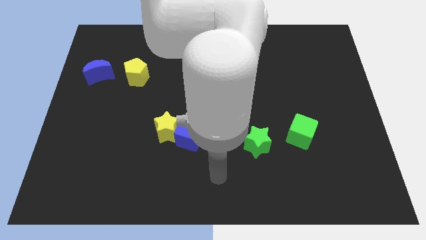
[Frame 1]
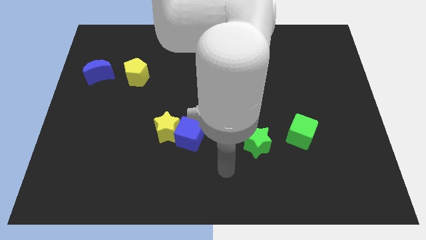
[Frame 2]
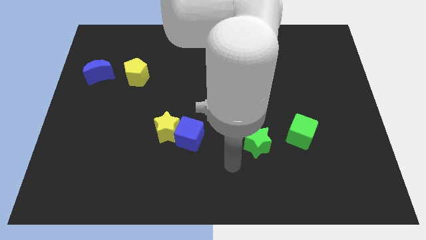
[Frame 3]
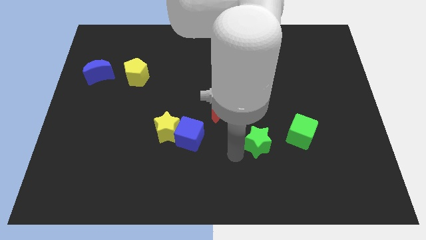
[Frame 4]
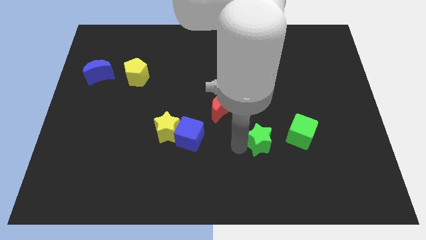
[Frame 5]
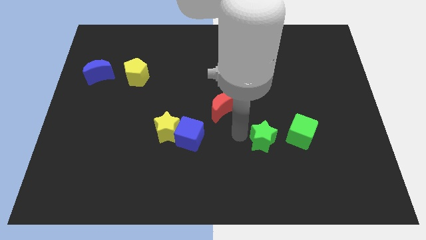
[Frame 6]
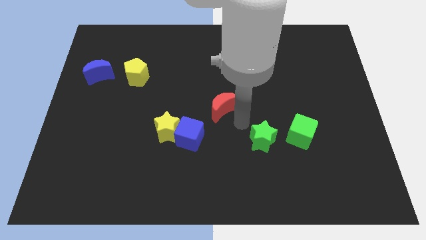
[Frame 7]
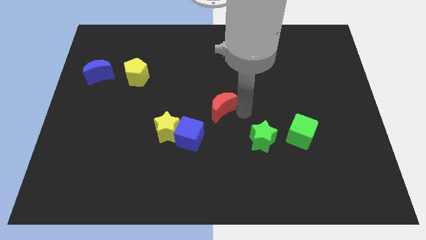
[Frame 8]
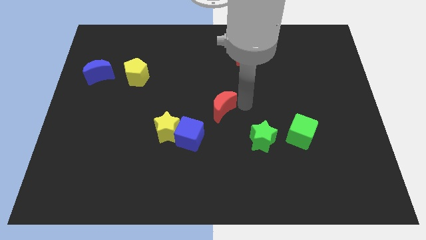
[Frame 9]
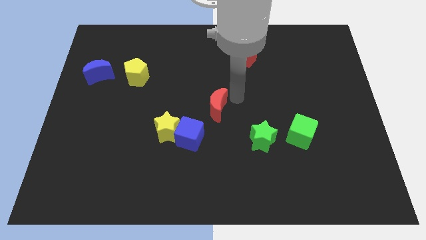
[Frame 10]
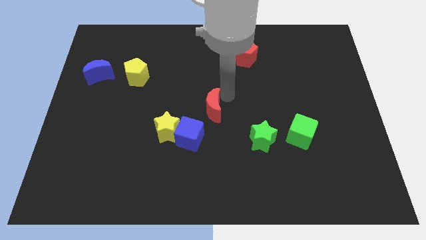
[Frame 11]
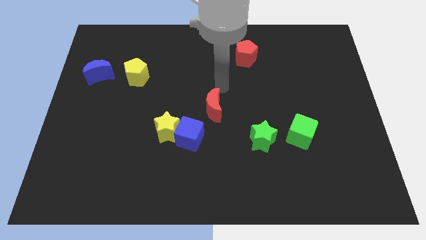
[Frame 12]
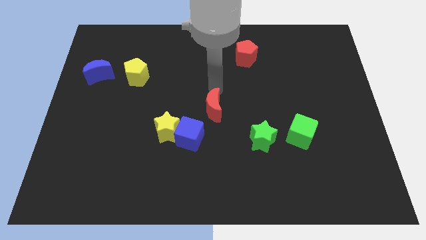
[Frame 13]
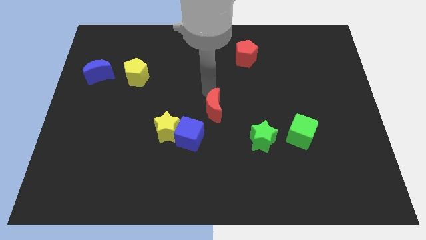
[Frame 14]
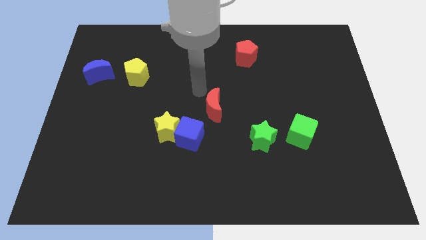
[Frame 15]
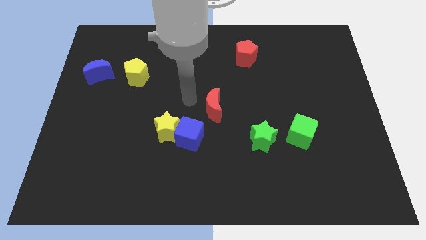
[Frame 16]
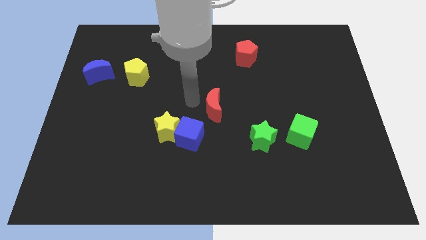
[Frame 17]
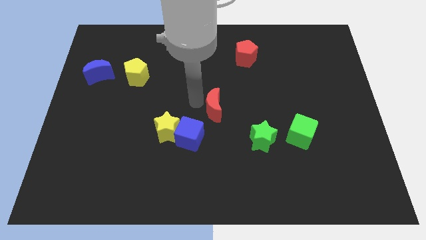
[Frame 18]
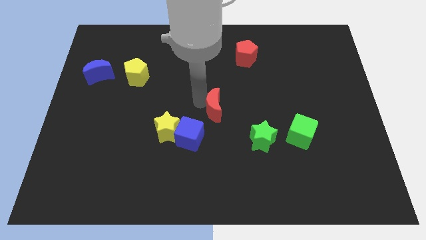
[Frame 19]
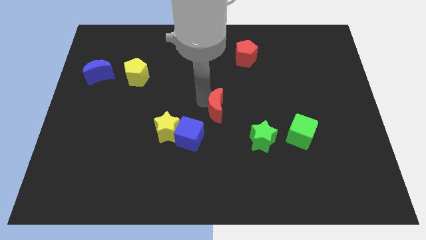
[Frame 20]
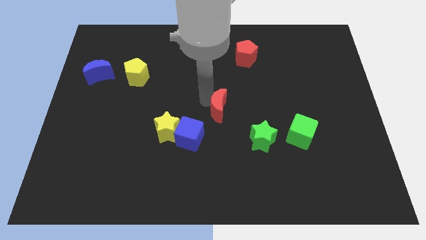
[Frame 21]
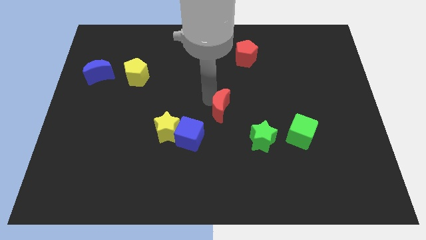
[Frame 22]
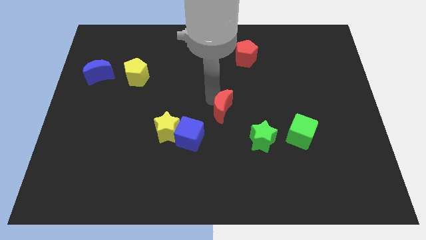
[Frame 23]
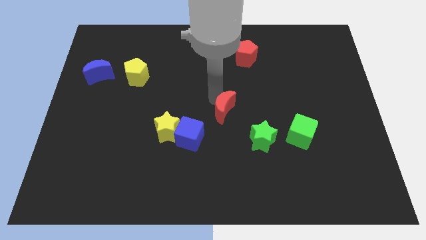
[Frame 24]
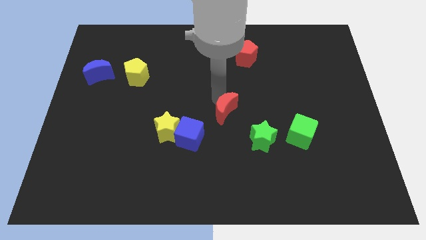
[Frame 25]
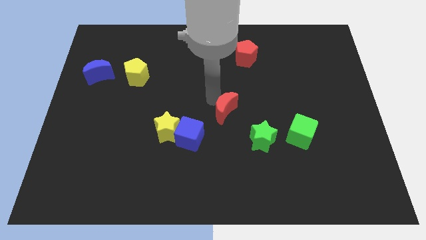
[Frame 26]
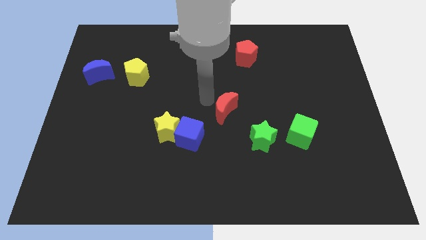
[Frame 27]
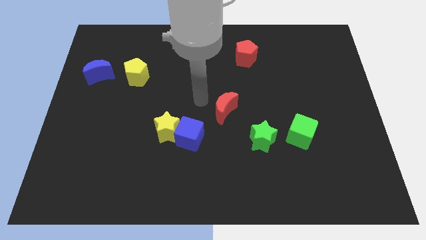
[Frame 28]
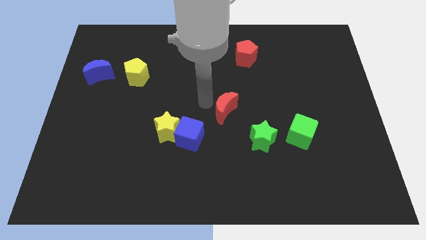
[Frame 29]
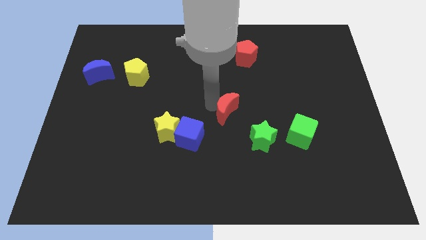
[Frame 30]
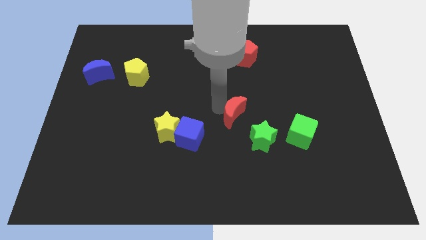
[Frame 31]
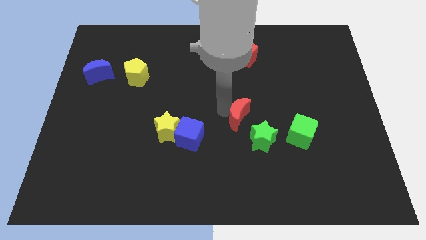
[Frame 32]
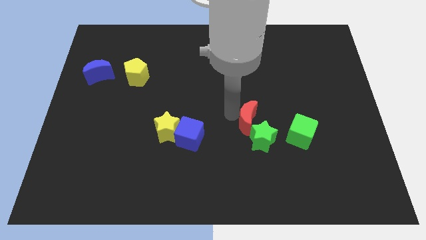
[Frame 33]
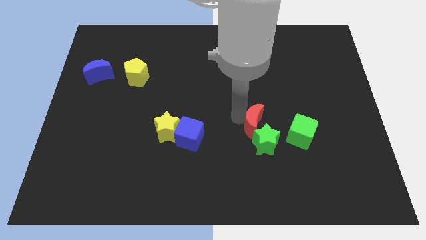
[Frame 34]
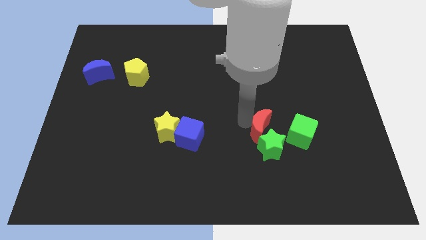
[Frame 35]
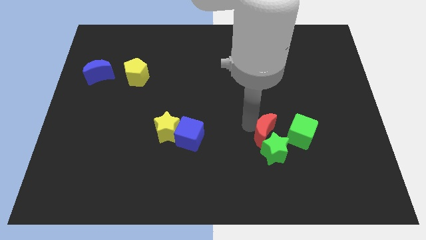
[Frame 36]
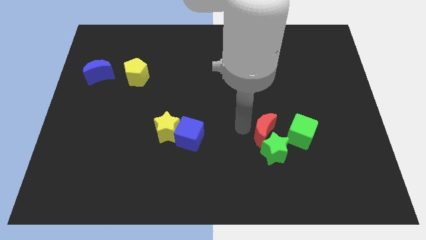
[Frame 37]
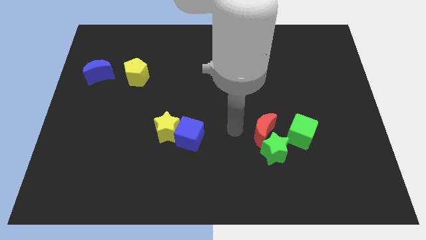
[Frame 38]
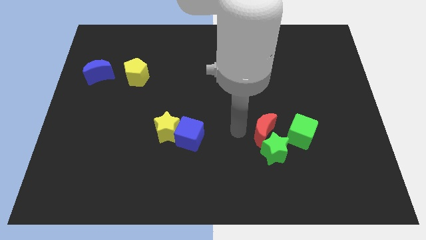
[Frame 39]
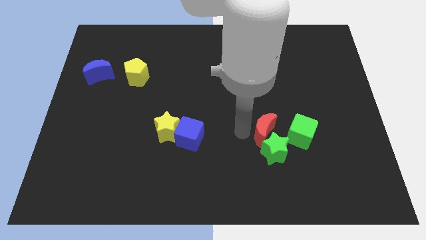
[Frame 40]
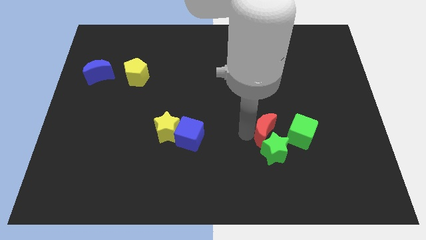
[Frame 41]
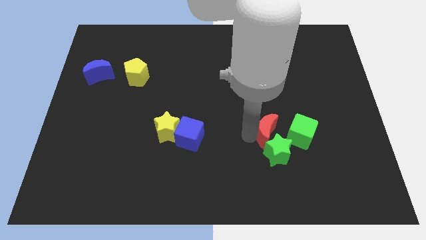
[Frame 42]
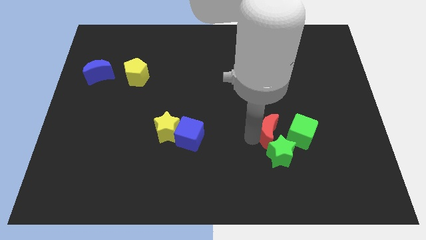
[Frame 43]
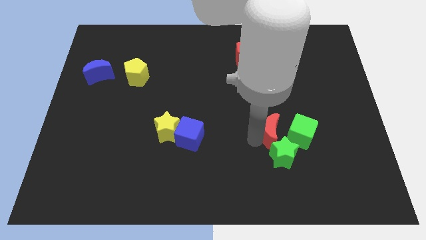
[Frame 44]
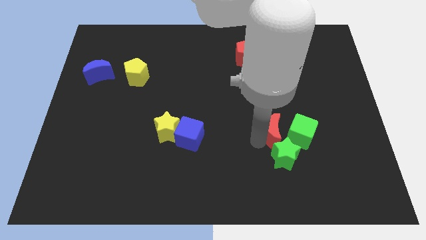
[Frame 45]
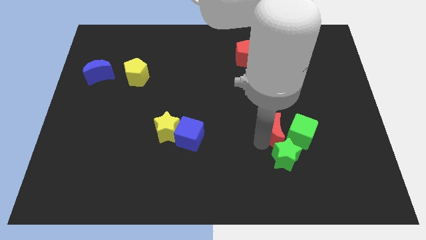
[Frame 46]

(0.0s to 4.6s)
put the red moon close to the green cube

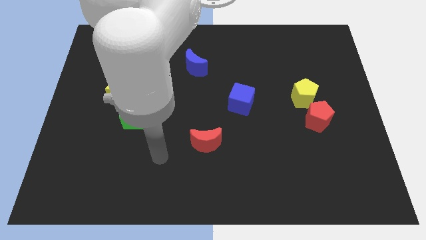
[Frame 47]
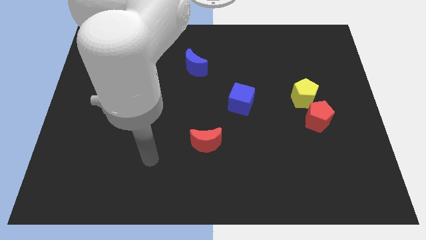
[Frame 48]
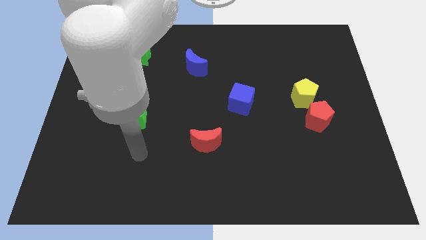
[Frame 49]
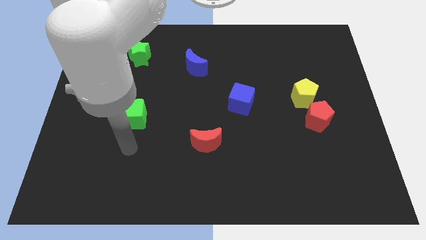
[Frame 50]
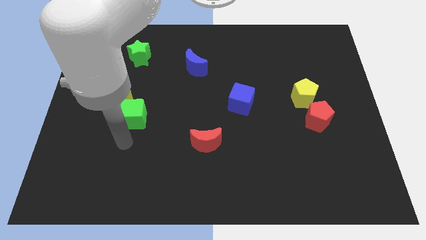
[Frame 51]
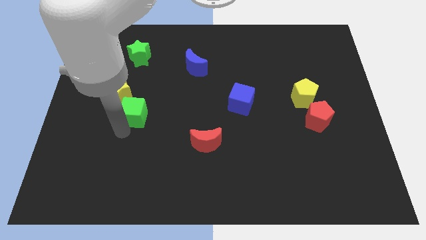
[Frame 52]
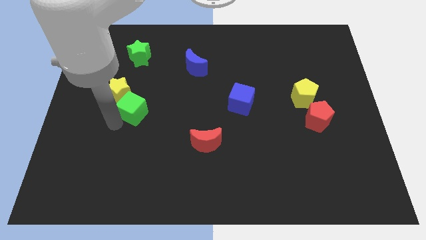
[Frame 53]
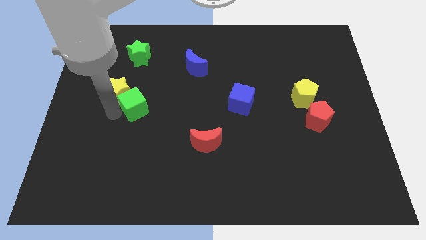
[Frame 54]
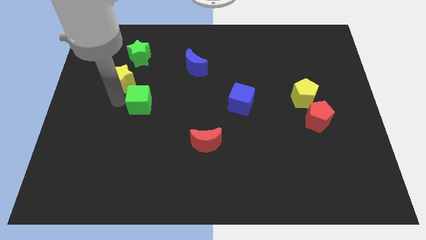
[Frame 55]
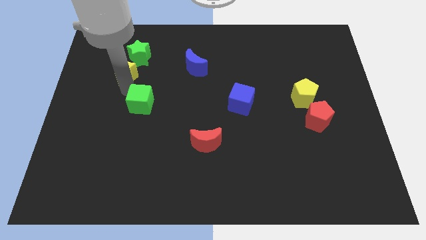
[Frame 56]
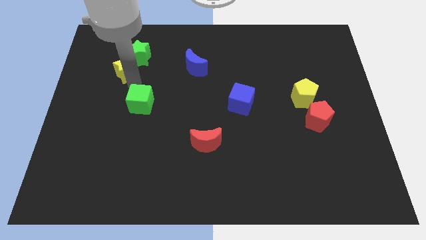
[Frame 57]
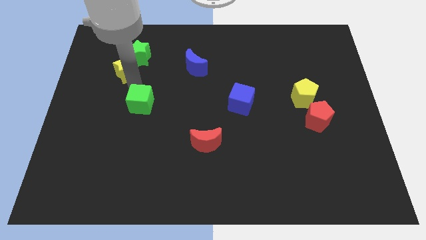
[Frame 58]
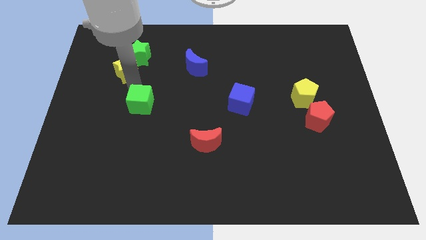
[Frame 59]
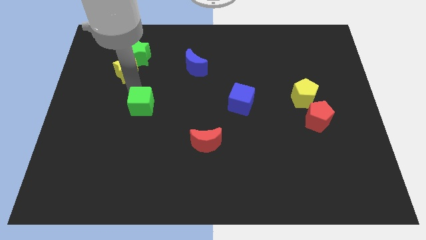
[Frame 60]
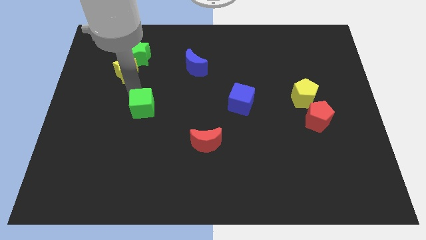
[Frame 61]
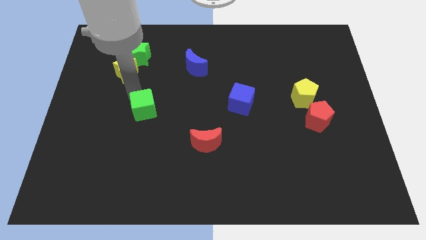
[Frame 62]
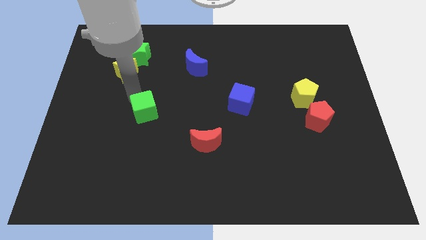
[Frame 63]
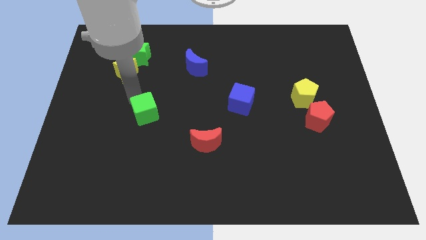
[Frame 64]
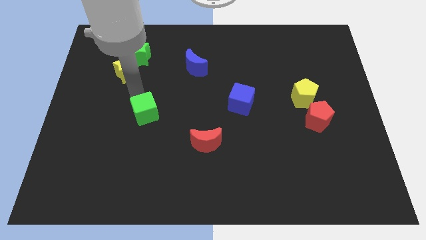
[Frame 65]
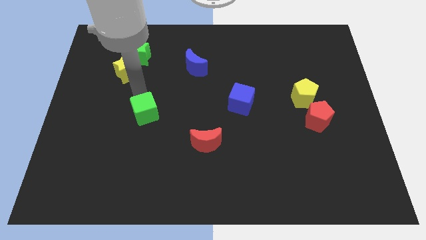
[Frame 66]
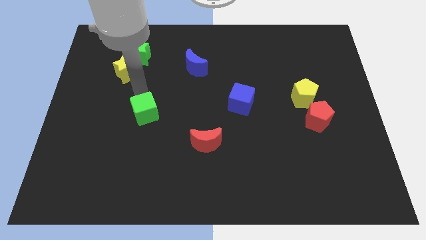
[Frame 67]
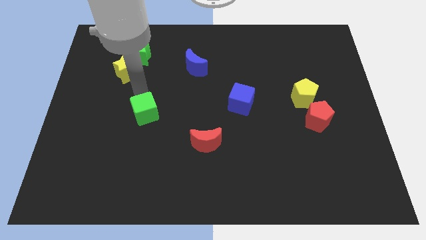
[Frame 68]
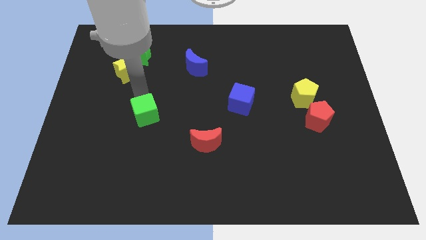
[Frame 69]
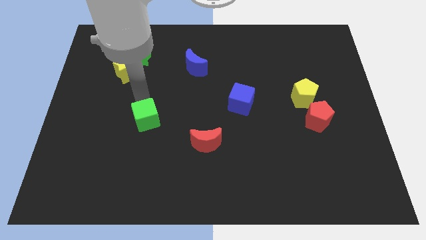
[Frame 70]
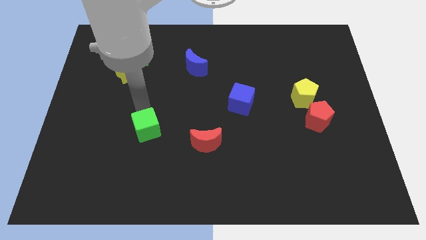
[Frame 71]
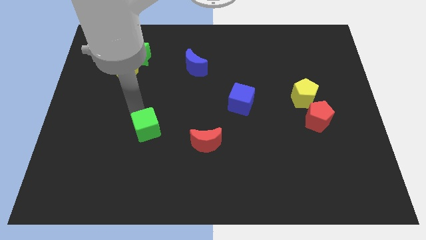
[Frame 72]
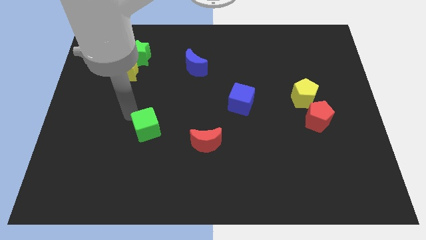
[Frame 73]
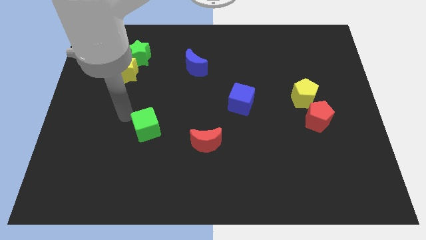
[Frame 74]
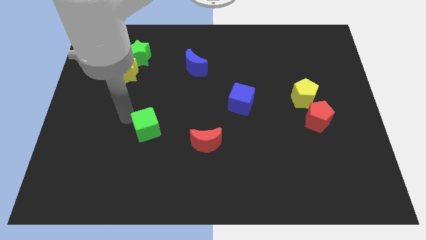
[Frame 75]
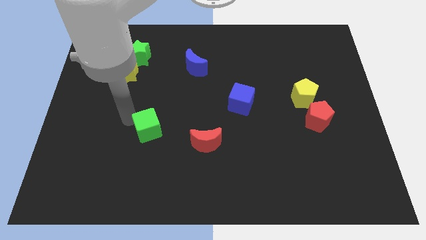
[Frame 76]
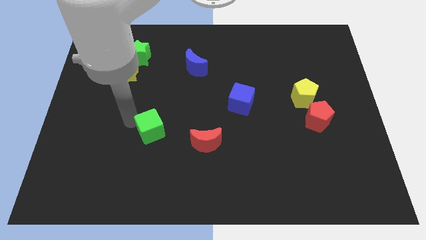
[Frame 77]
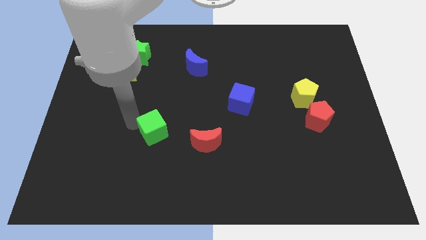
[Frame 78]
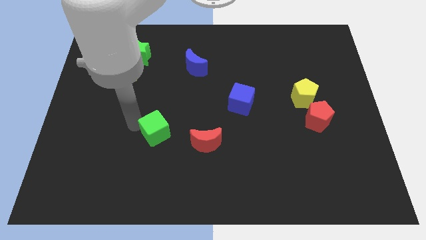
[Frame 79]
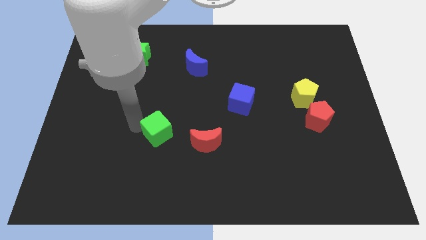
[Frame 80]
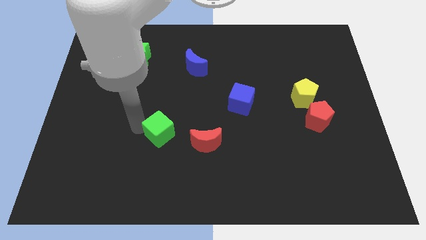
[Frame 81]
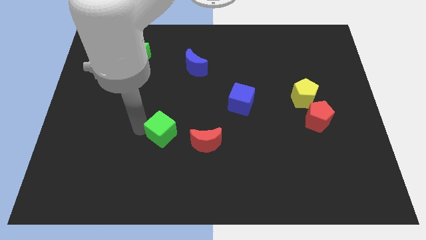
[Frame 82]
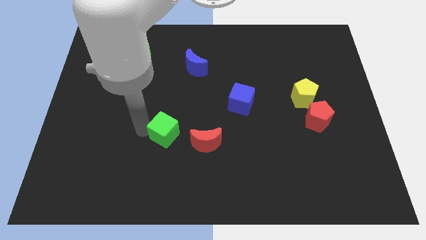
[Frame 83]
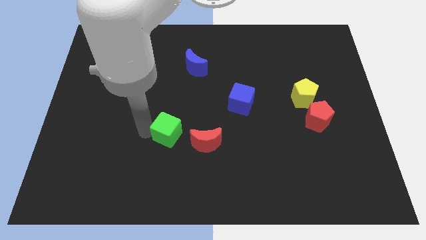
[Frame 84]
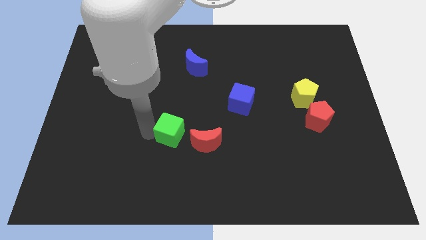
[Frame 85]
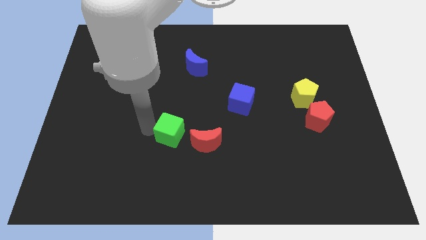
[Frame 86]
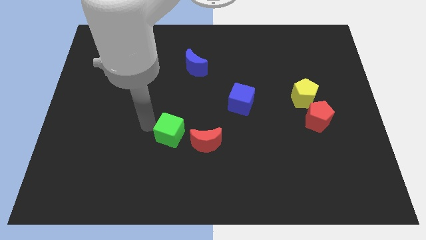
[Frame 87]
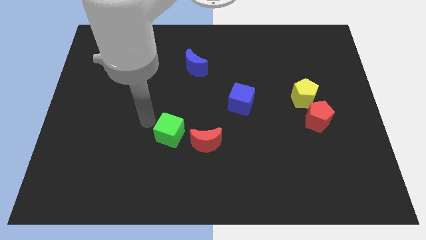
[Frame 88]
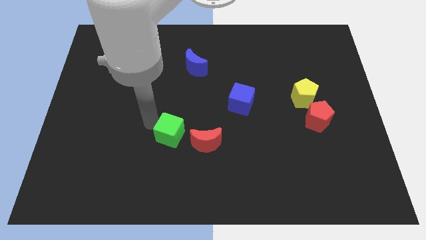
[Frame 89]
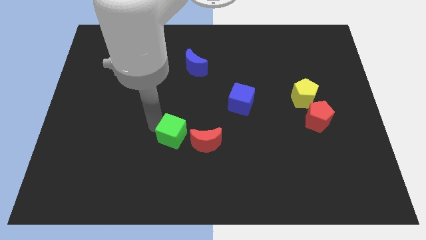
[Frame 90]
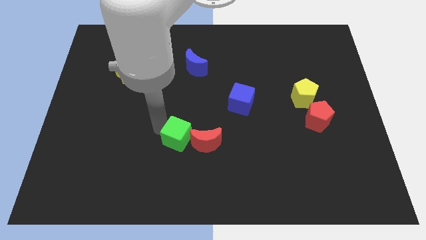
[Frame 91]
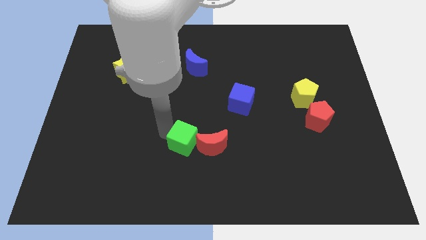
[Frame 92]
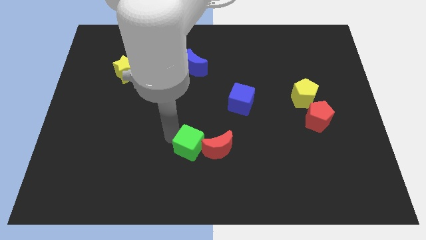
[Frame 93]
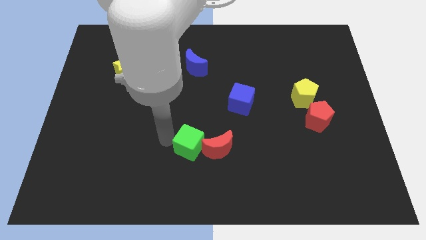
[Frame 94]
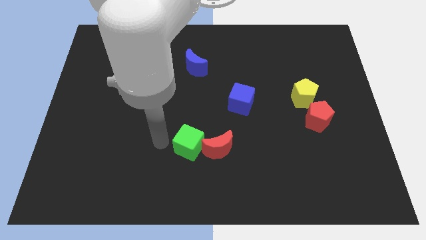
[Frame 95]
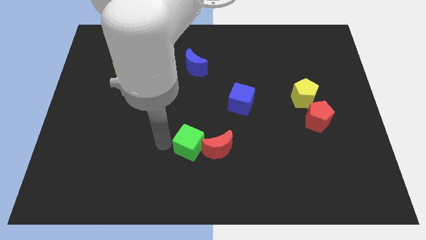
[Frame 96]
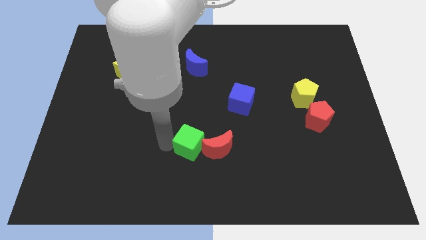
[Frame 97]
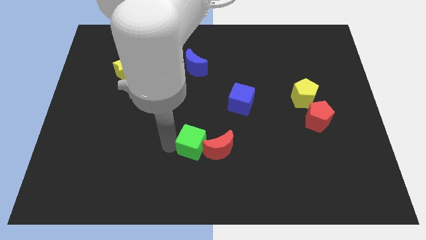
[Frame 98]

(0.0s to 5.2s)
slide the green cube next to the red moon
